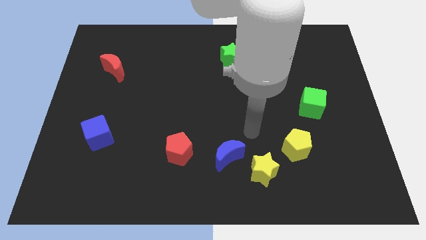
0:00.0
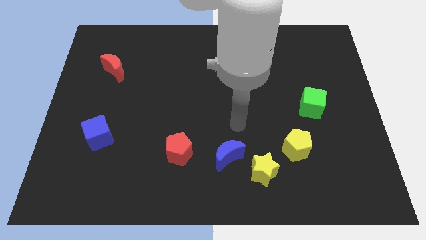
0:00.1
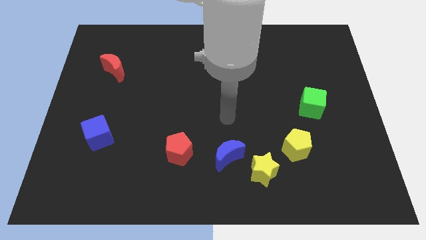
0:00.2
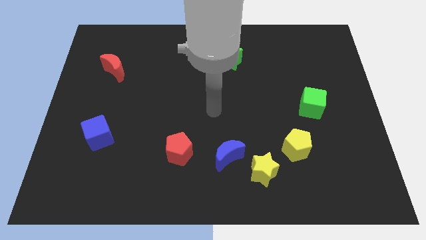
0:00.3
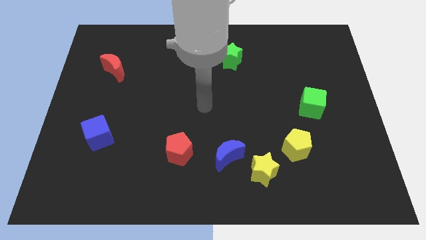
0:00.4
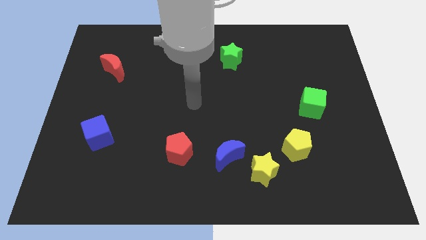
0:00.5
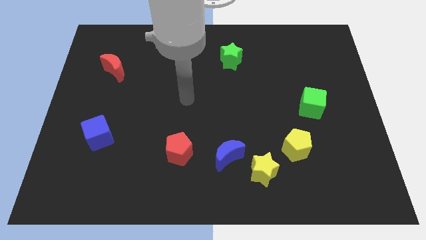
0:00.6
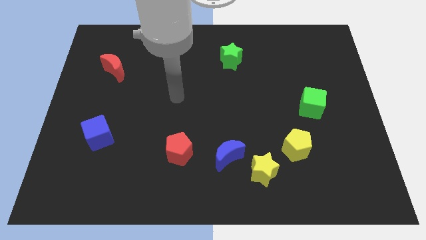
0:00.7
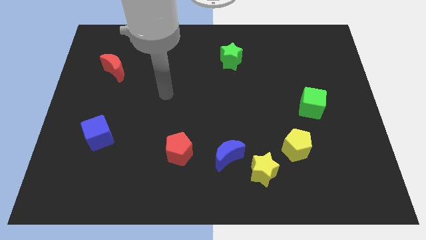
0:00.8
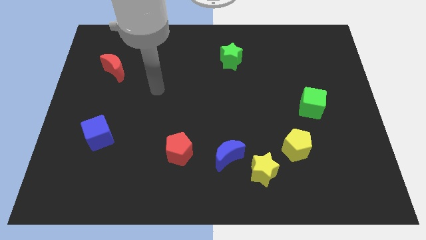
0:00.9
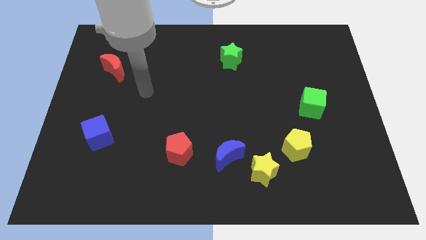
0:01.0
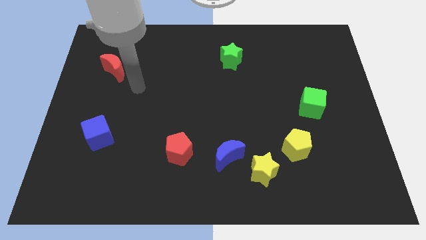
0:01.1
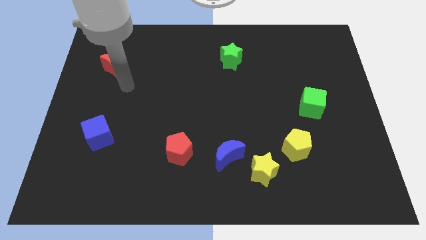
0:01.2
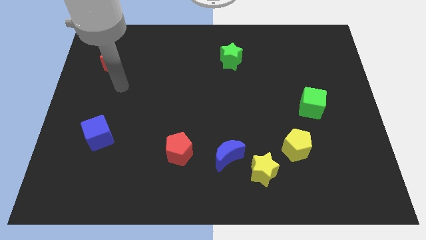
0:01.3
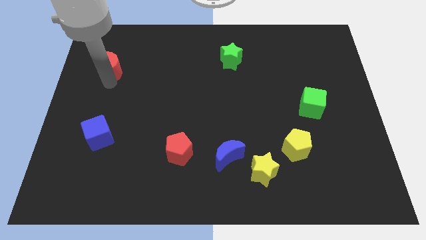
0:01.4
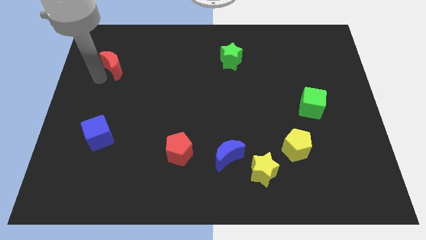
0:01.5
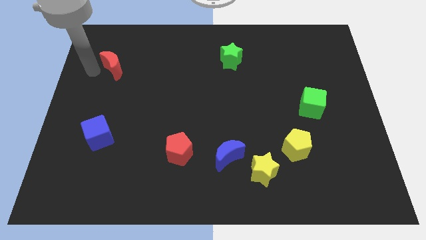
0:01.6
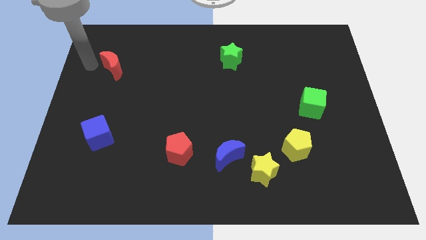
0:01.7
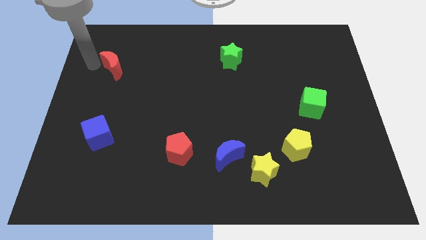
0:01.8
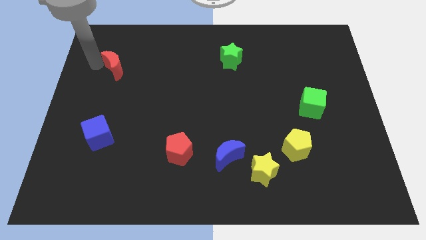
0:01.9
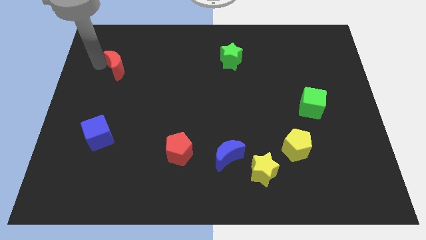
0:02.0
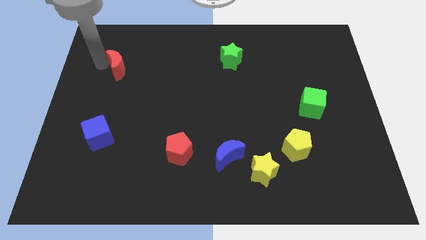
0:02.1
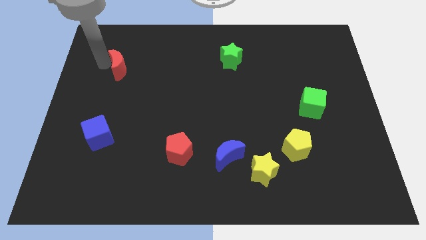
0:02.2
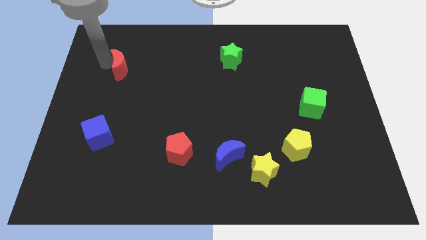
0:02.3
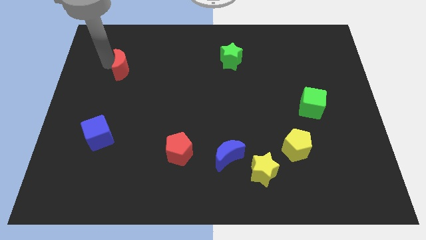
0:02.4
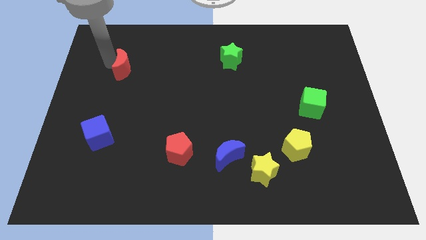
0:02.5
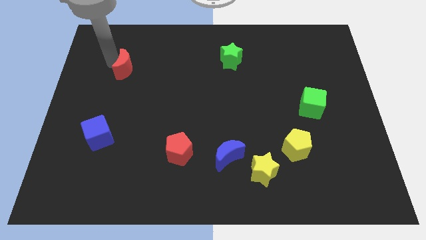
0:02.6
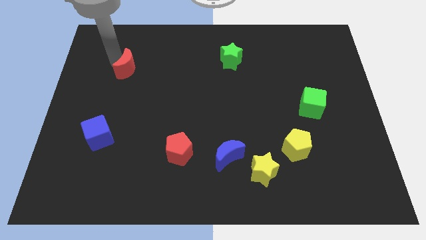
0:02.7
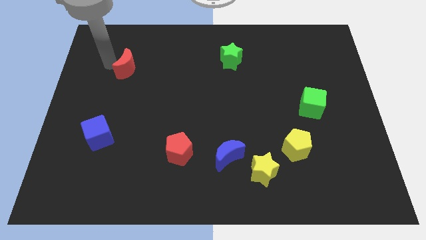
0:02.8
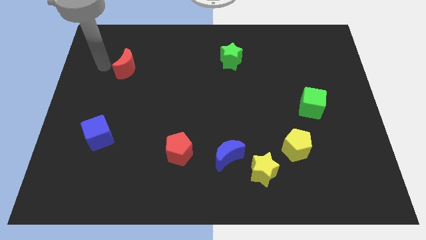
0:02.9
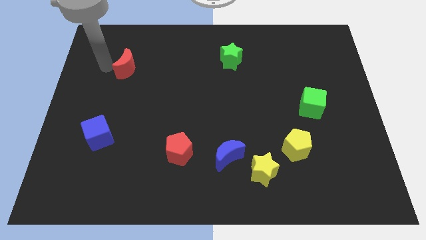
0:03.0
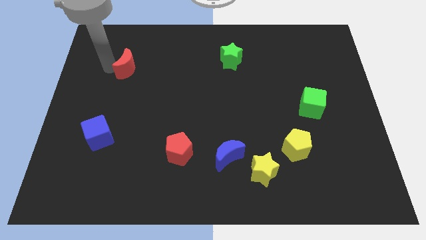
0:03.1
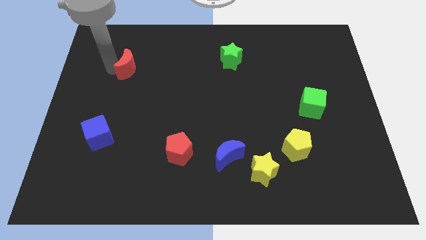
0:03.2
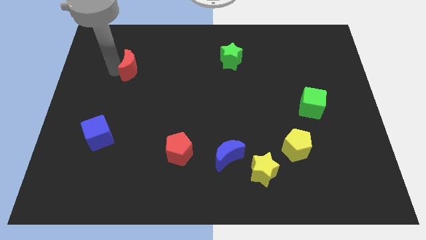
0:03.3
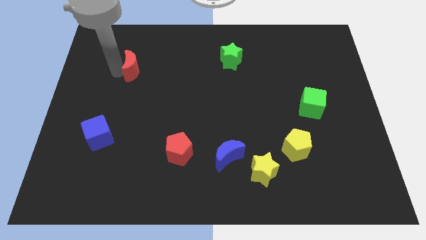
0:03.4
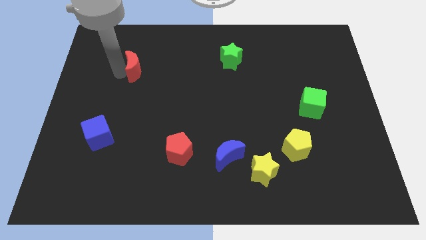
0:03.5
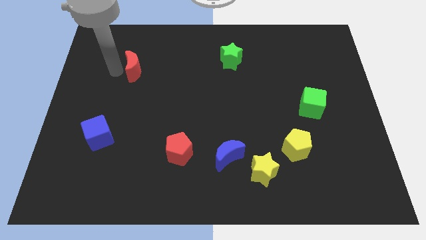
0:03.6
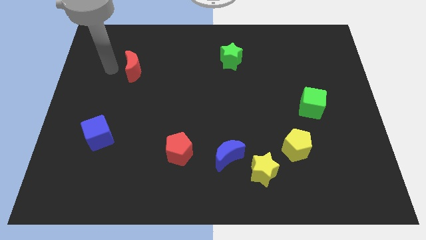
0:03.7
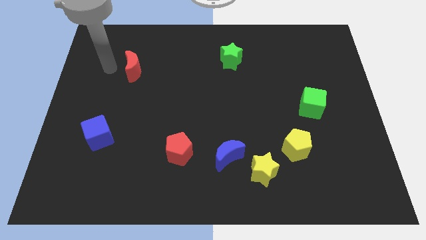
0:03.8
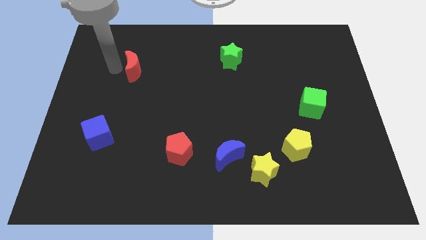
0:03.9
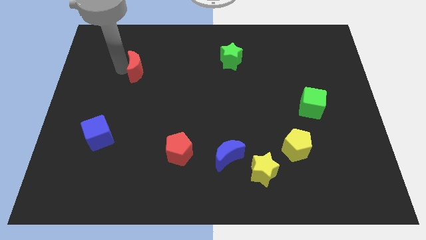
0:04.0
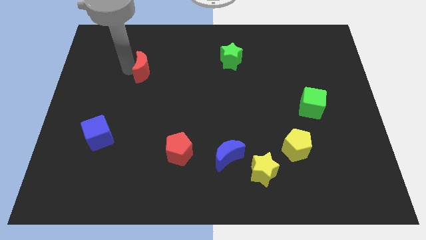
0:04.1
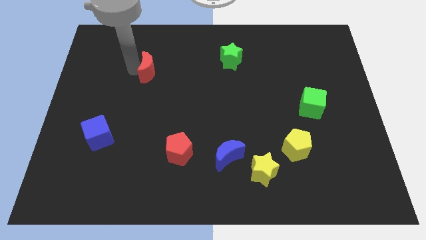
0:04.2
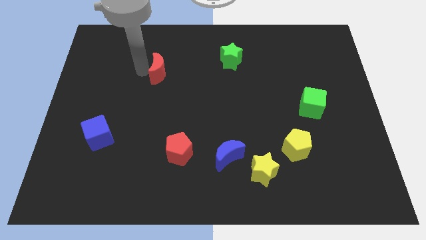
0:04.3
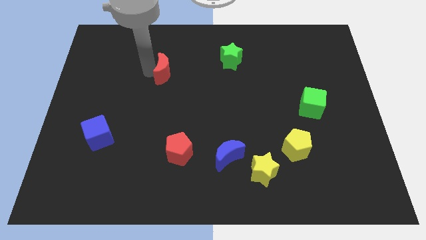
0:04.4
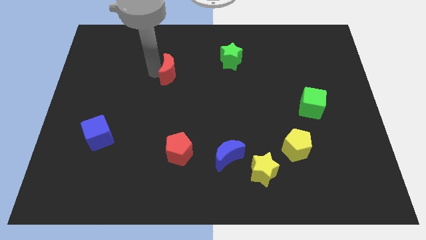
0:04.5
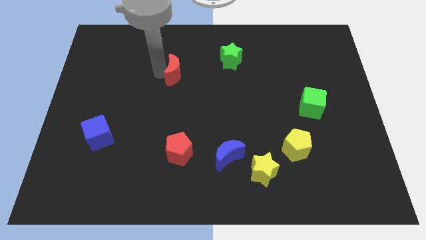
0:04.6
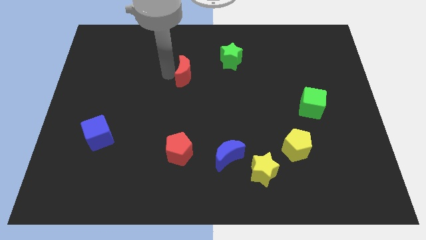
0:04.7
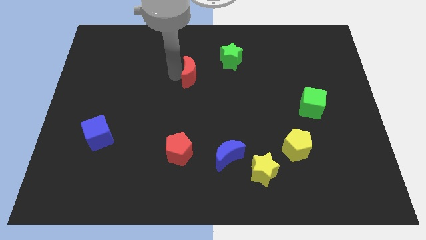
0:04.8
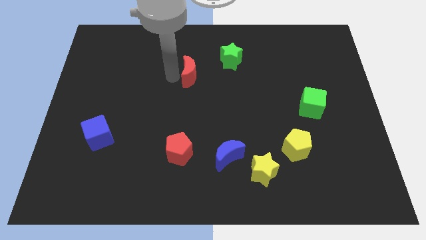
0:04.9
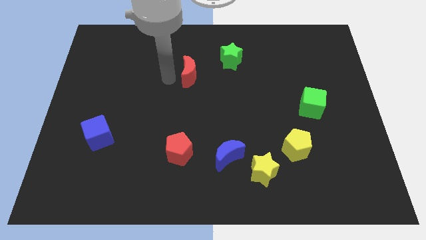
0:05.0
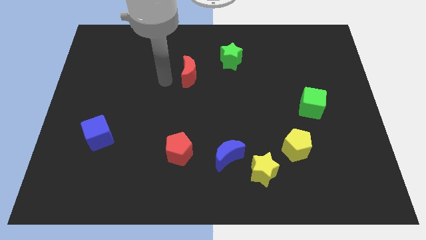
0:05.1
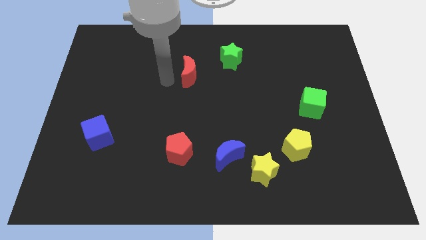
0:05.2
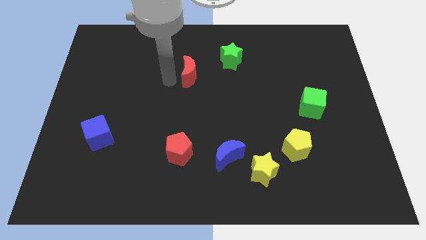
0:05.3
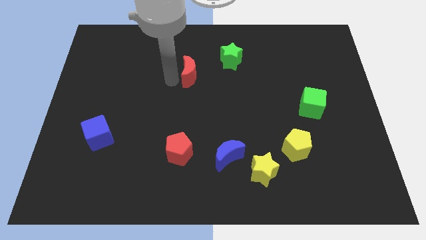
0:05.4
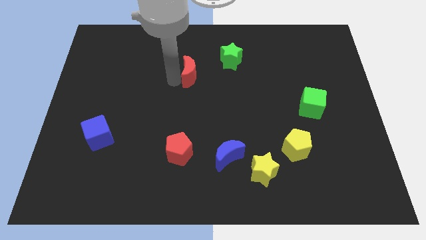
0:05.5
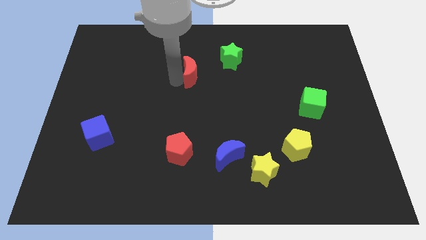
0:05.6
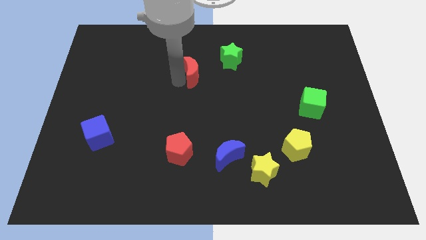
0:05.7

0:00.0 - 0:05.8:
move the red moon right

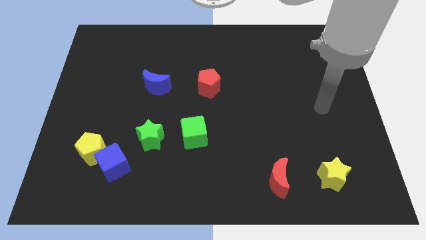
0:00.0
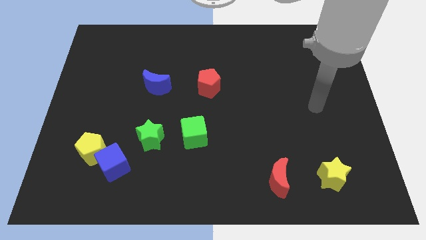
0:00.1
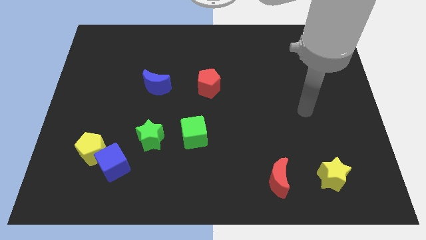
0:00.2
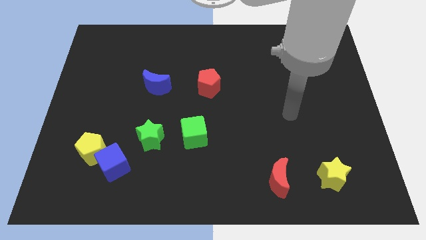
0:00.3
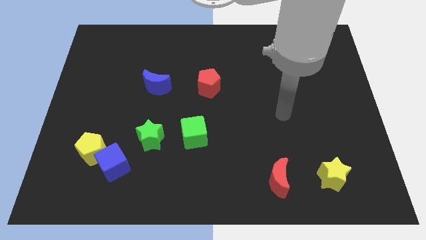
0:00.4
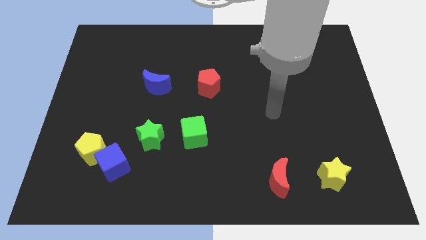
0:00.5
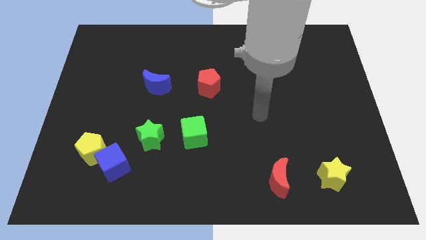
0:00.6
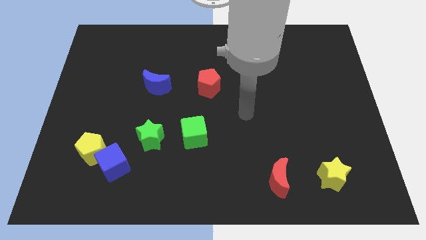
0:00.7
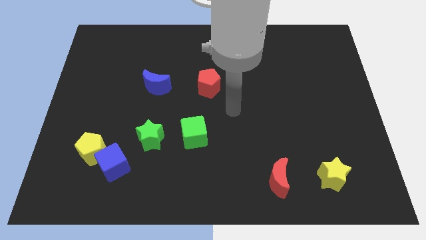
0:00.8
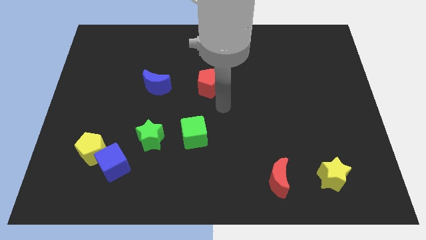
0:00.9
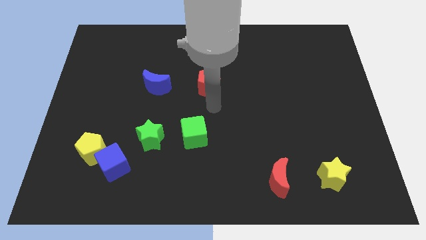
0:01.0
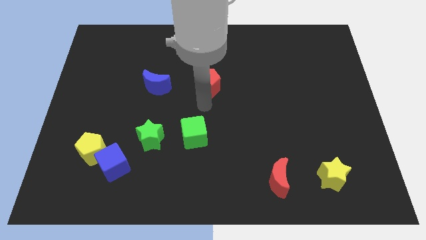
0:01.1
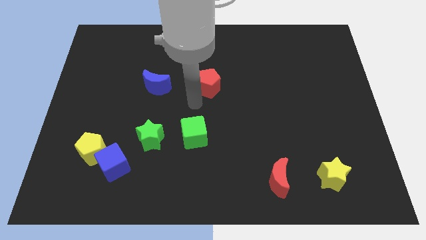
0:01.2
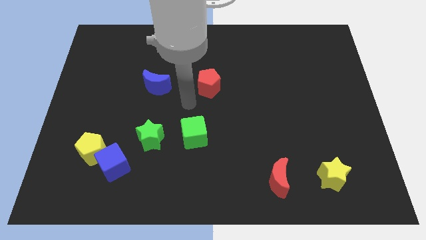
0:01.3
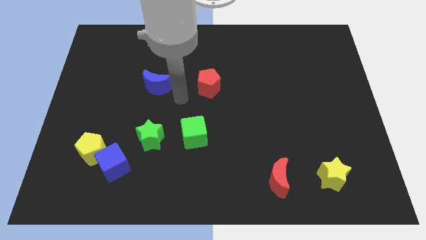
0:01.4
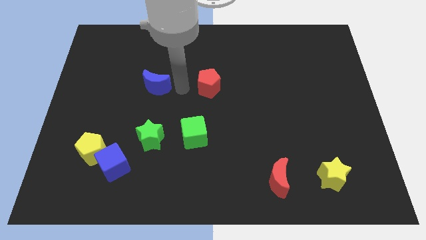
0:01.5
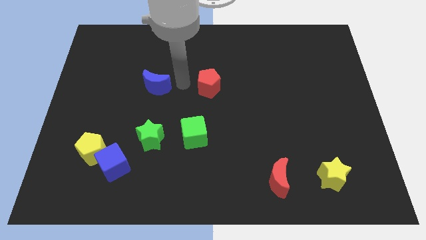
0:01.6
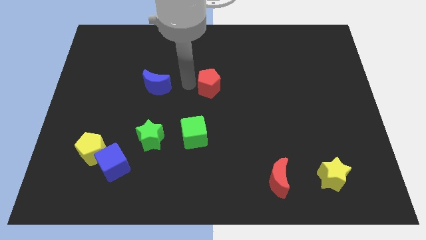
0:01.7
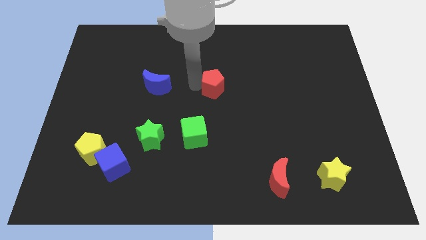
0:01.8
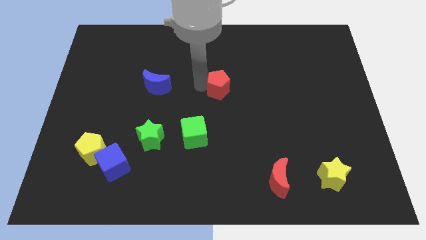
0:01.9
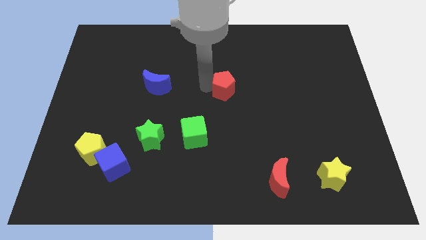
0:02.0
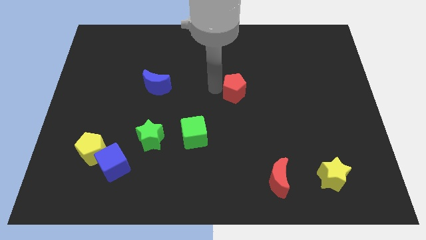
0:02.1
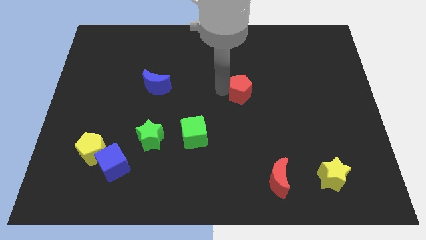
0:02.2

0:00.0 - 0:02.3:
push the red pentagon to the right a little bit

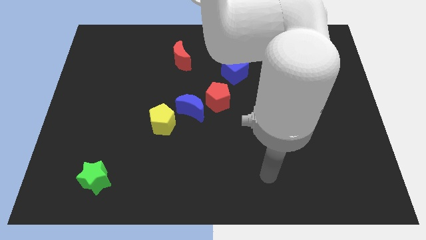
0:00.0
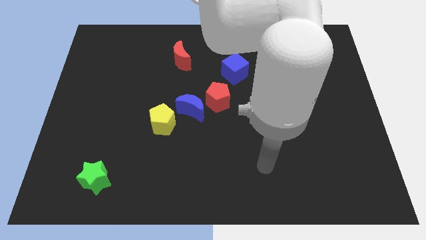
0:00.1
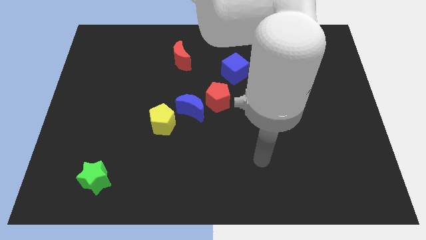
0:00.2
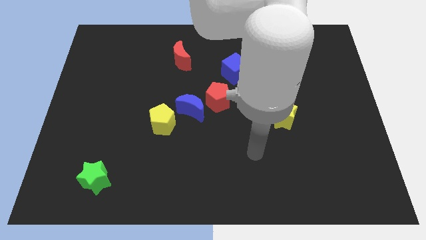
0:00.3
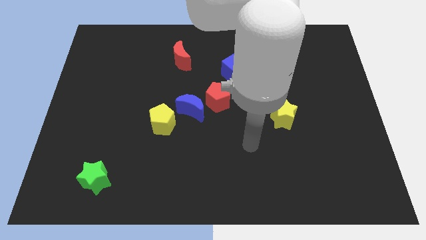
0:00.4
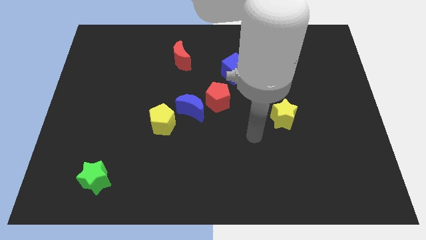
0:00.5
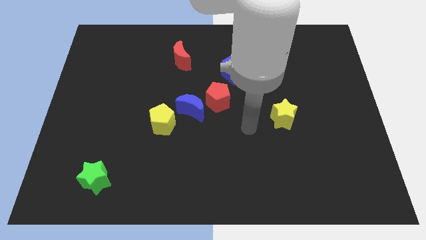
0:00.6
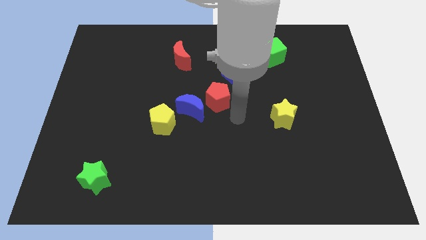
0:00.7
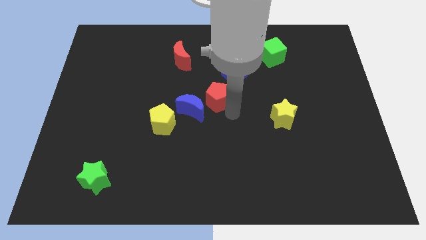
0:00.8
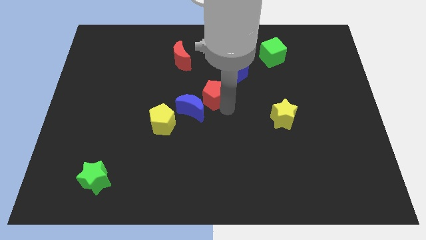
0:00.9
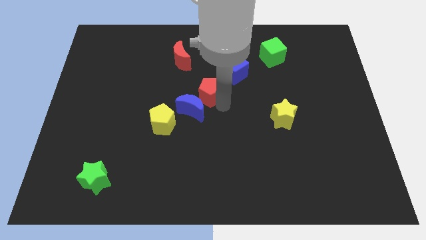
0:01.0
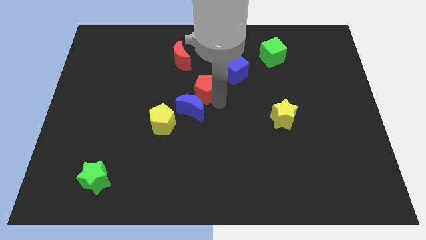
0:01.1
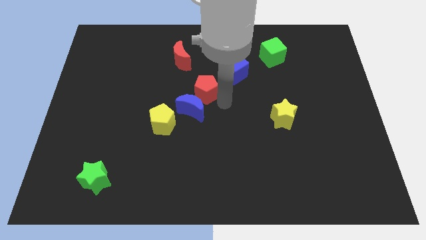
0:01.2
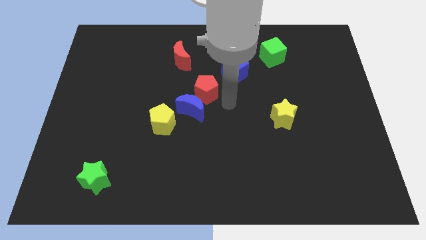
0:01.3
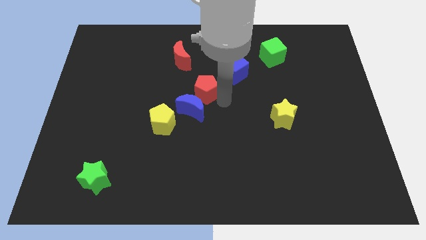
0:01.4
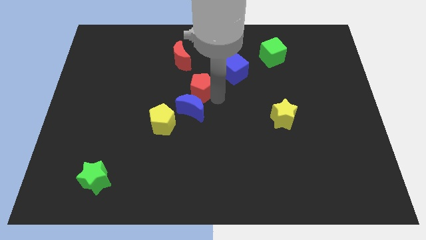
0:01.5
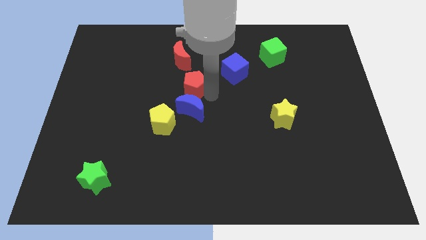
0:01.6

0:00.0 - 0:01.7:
move the red pentagon a little bit upwards and left diagonally
